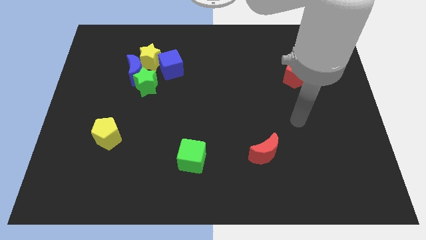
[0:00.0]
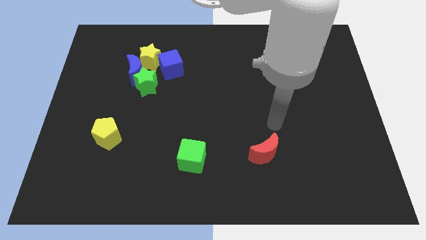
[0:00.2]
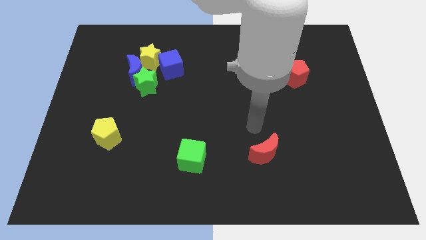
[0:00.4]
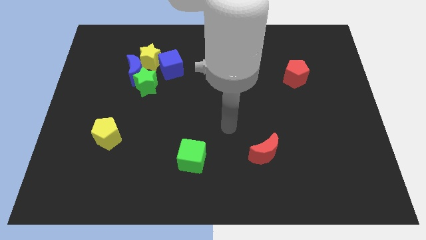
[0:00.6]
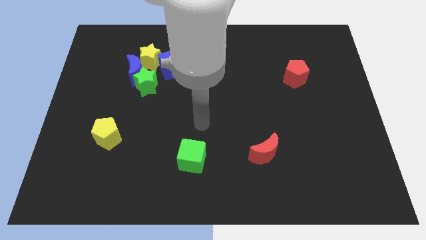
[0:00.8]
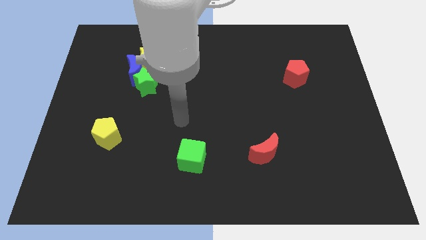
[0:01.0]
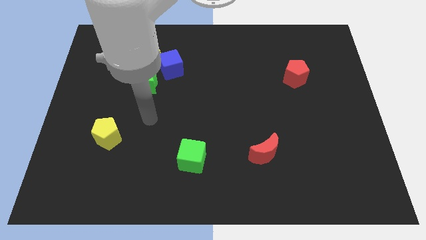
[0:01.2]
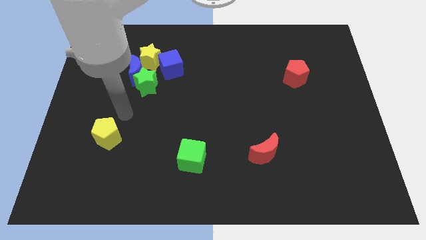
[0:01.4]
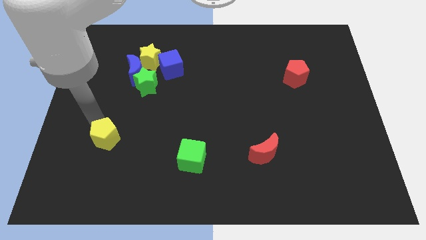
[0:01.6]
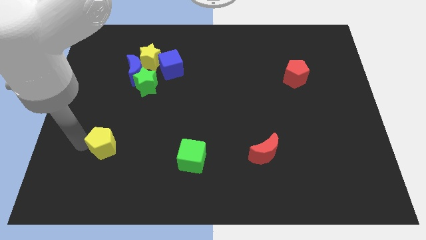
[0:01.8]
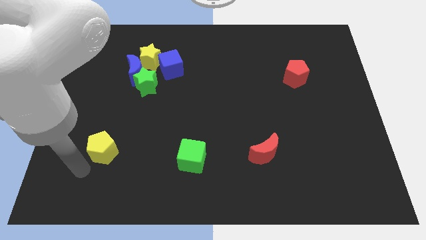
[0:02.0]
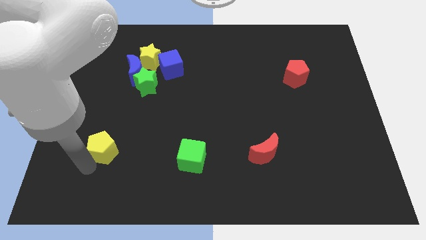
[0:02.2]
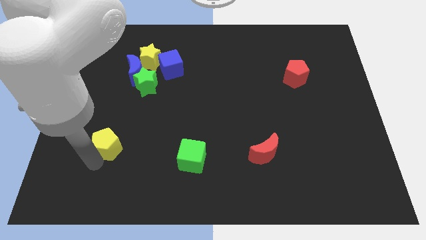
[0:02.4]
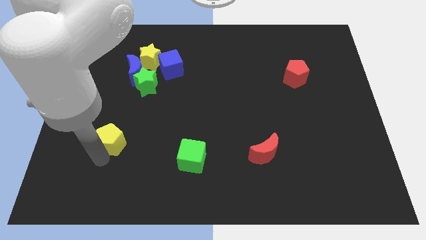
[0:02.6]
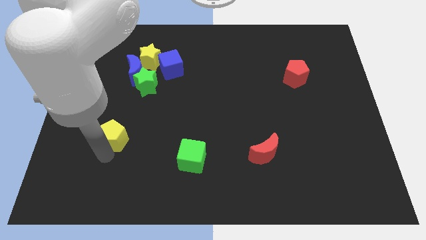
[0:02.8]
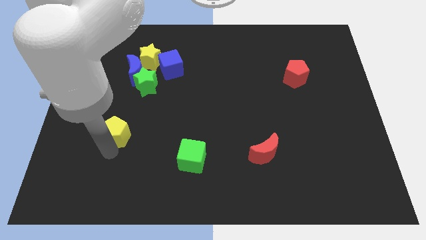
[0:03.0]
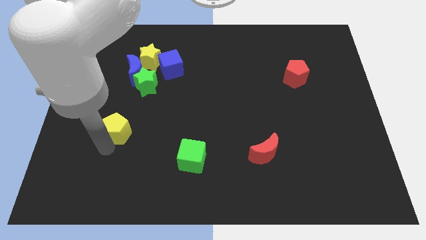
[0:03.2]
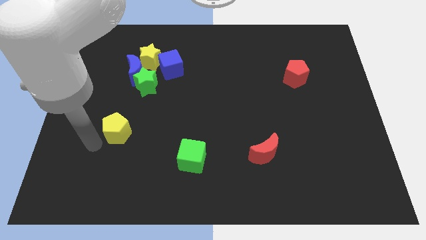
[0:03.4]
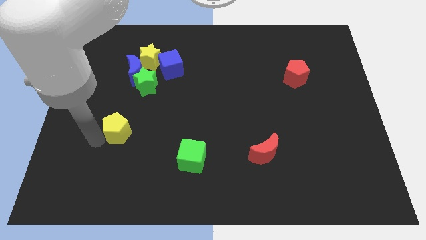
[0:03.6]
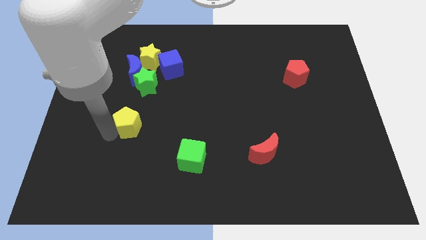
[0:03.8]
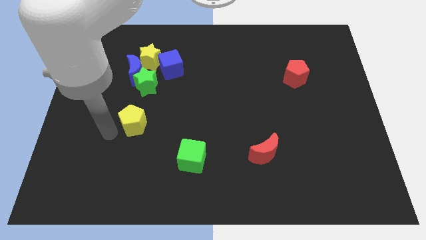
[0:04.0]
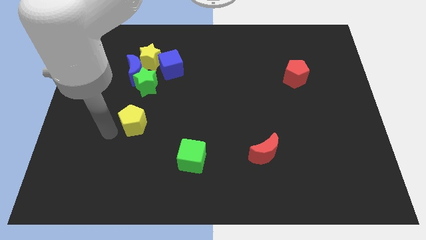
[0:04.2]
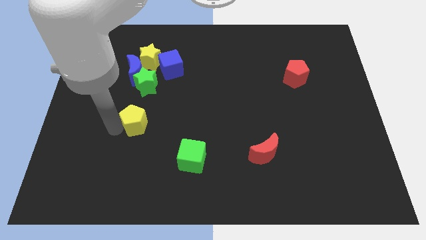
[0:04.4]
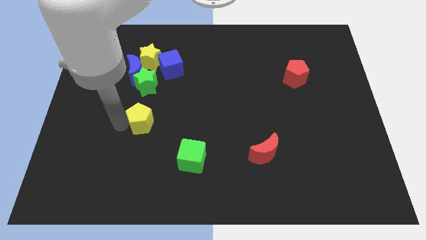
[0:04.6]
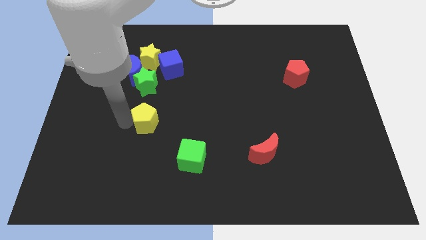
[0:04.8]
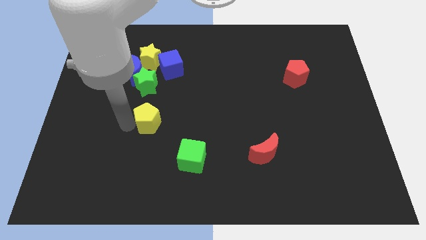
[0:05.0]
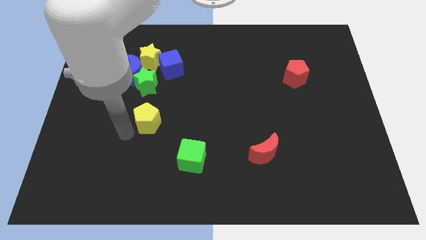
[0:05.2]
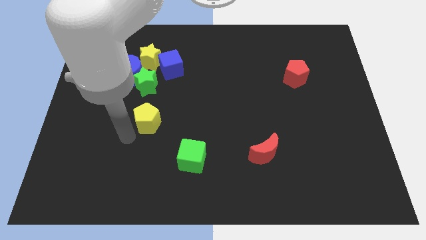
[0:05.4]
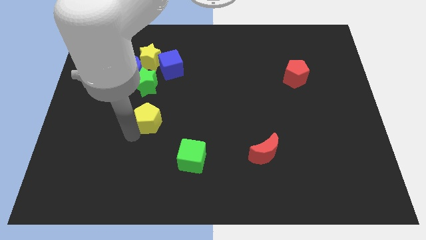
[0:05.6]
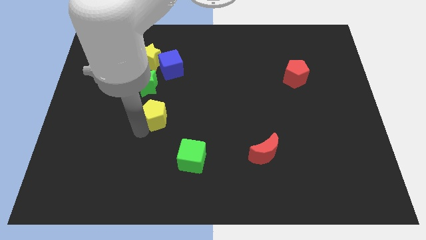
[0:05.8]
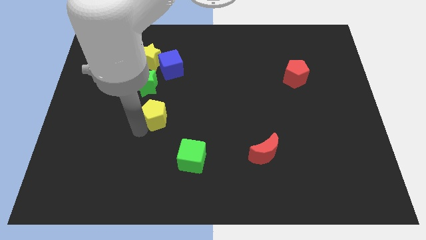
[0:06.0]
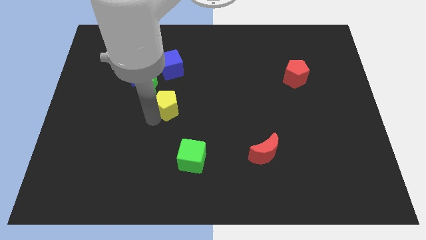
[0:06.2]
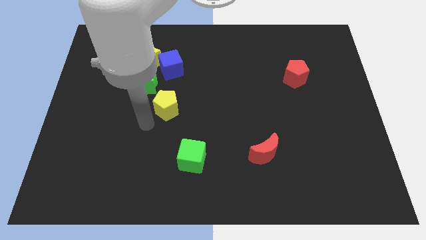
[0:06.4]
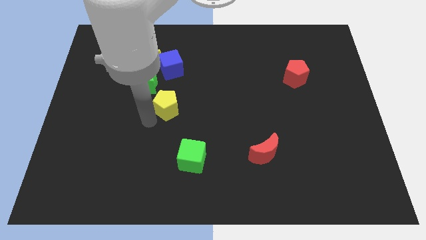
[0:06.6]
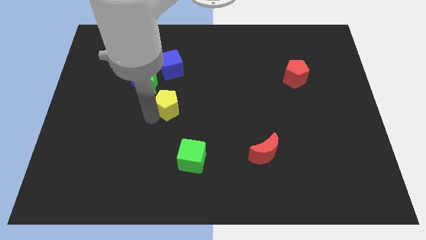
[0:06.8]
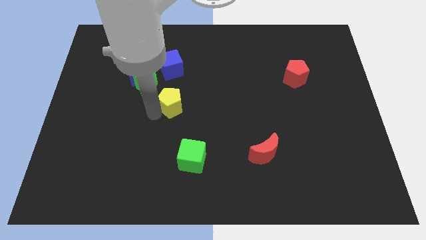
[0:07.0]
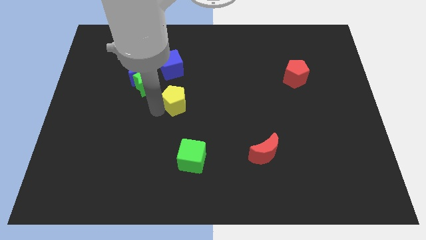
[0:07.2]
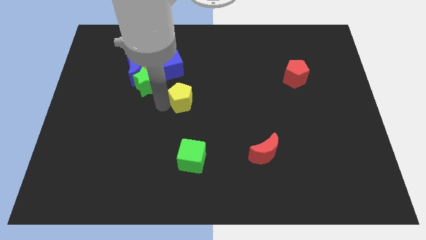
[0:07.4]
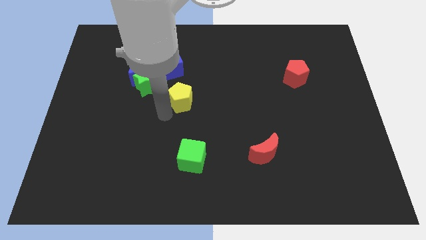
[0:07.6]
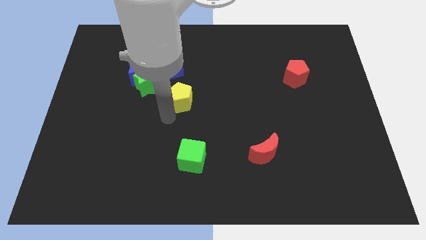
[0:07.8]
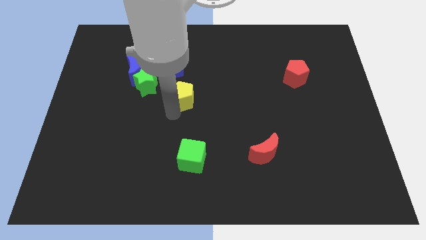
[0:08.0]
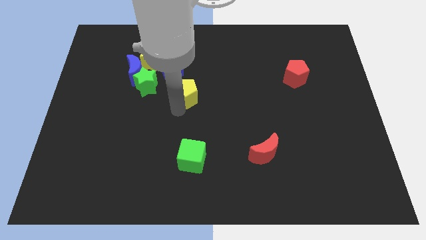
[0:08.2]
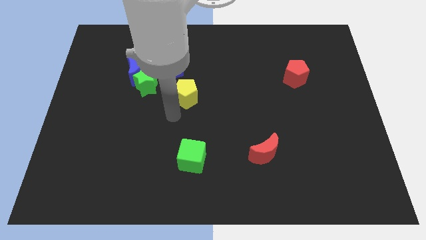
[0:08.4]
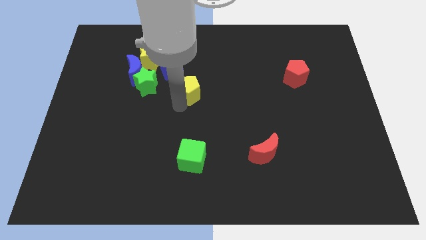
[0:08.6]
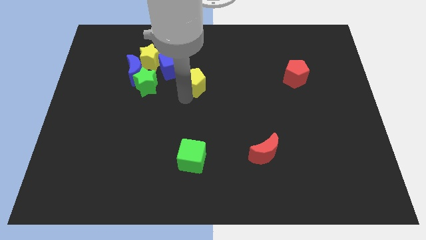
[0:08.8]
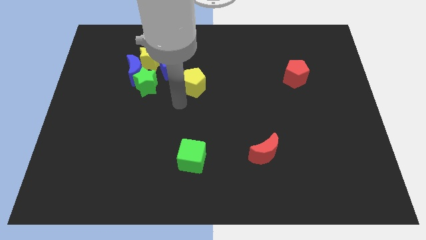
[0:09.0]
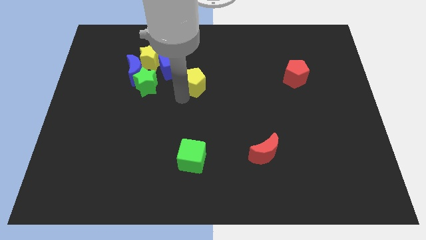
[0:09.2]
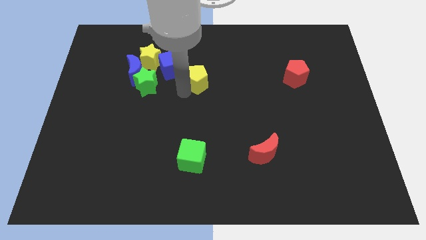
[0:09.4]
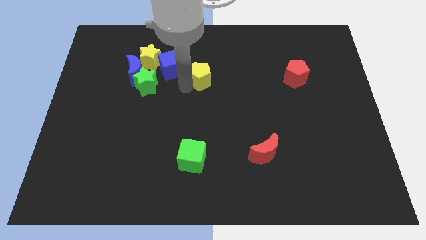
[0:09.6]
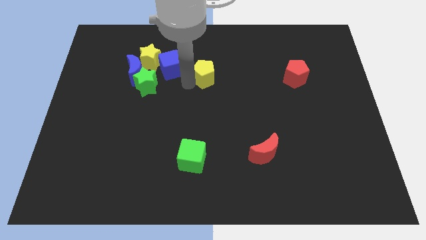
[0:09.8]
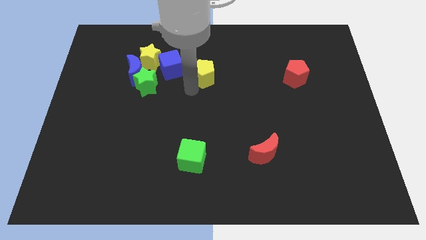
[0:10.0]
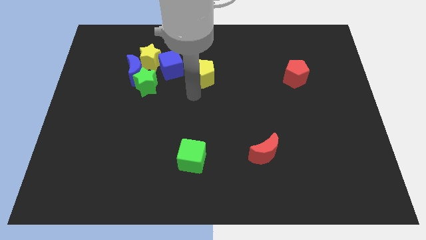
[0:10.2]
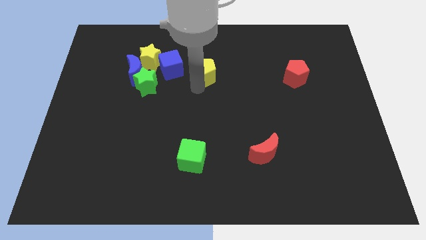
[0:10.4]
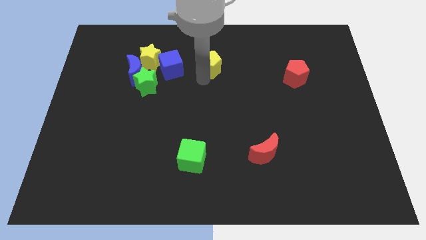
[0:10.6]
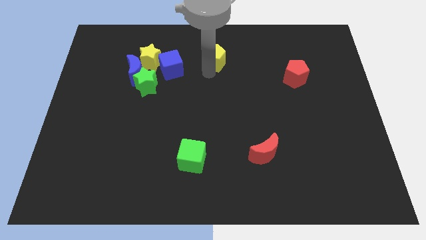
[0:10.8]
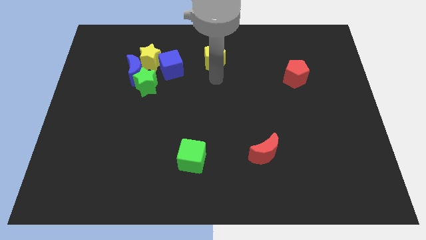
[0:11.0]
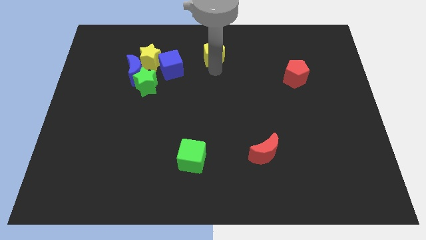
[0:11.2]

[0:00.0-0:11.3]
slide the yellow pentagon to the top side
